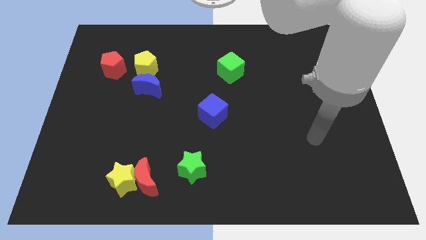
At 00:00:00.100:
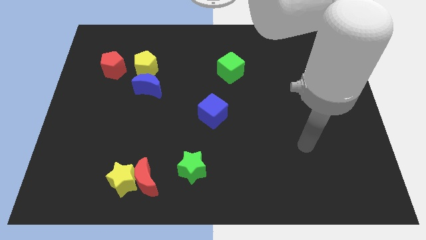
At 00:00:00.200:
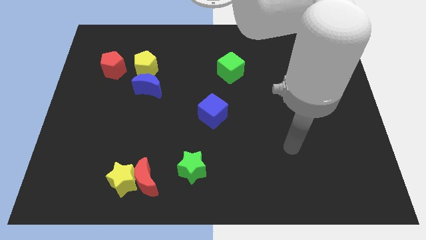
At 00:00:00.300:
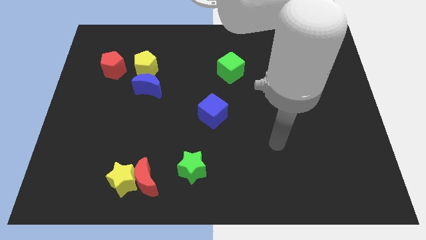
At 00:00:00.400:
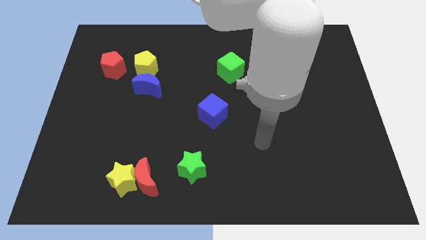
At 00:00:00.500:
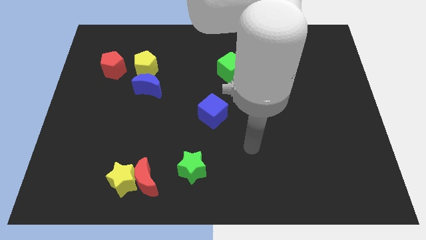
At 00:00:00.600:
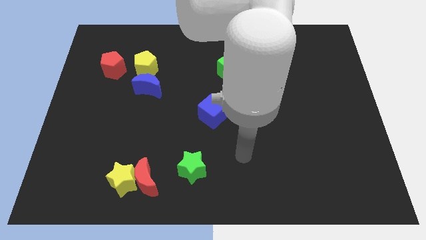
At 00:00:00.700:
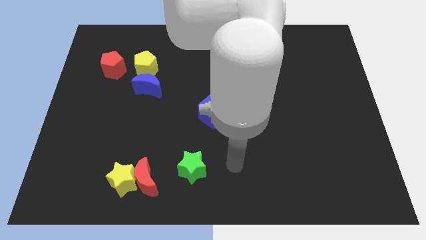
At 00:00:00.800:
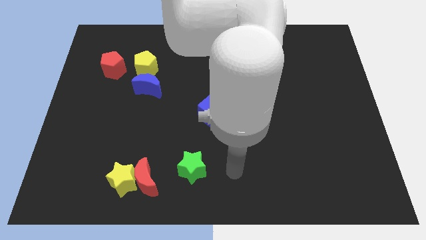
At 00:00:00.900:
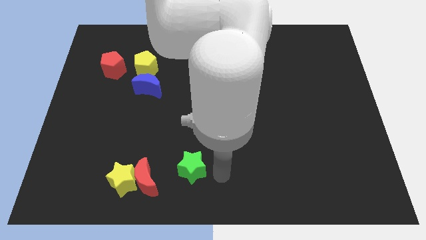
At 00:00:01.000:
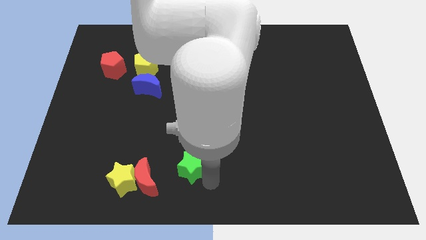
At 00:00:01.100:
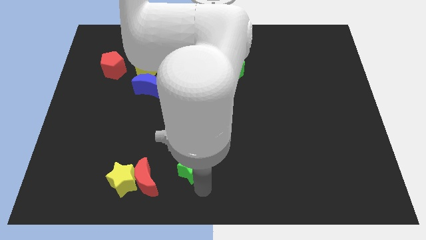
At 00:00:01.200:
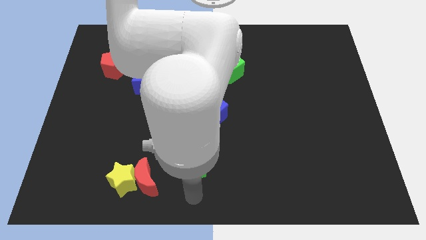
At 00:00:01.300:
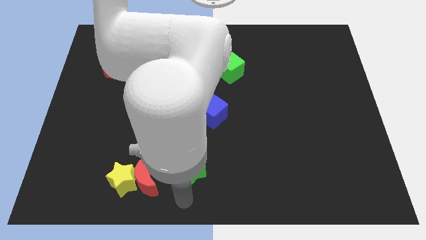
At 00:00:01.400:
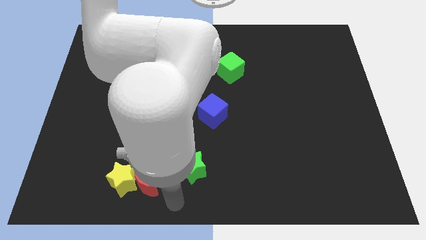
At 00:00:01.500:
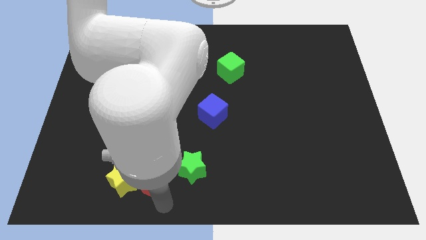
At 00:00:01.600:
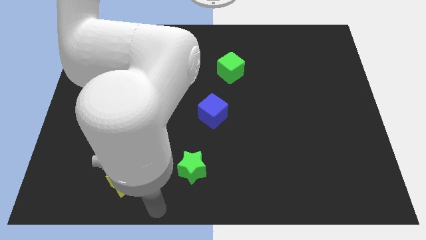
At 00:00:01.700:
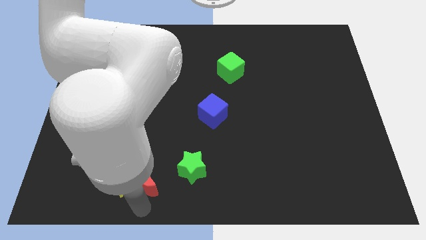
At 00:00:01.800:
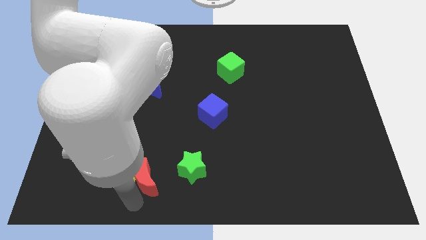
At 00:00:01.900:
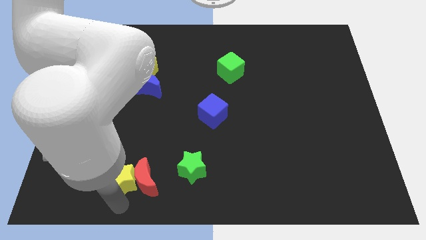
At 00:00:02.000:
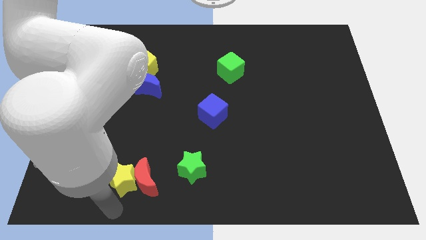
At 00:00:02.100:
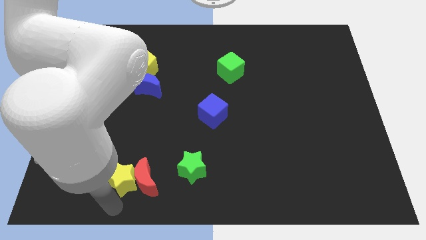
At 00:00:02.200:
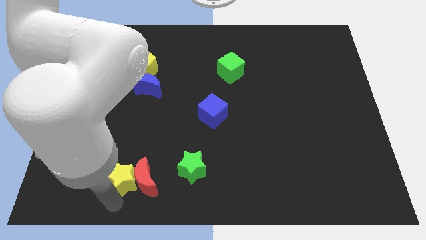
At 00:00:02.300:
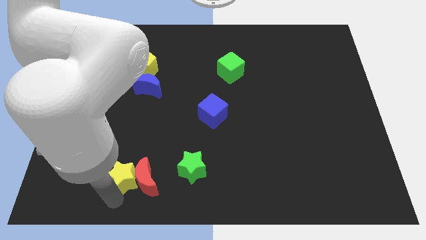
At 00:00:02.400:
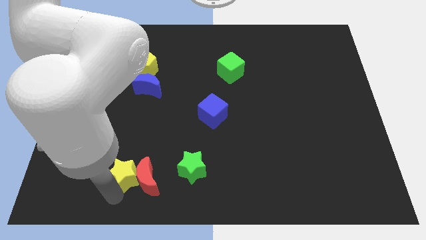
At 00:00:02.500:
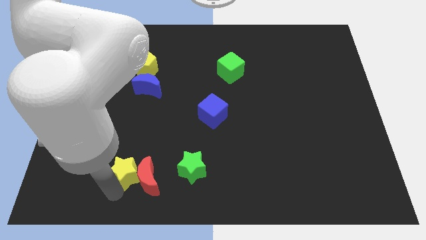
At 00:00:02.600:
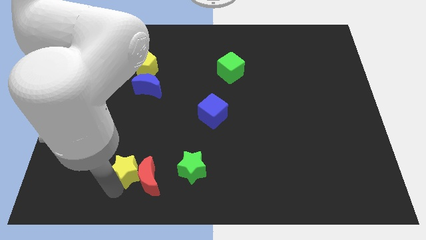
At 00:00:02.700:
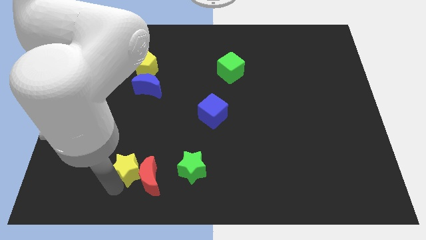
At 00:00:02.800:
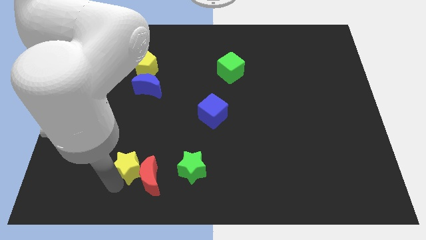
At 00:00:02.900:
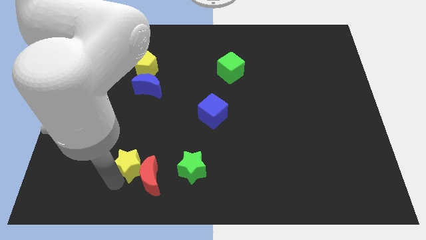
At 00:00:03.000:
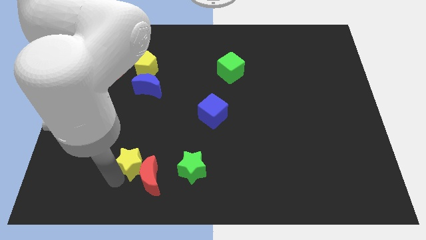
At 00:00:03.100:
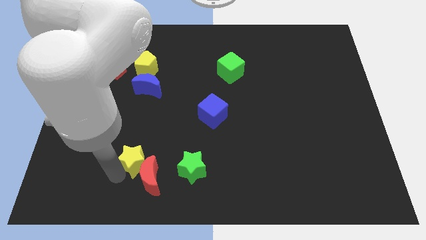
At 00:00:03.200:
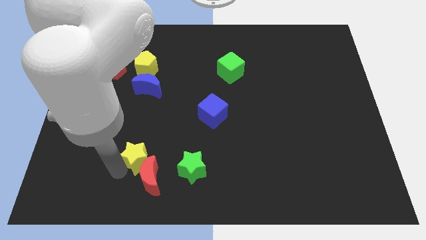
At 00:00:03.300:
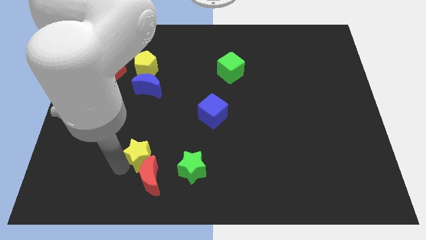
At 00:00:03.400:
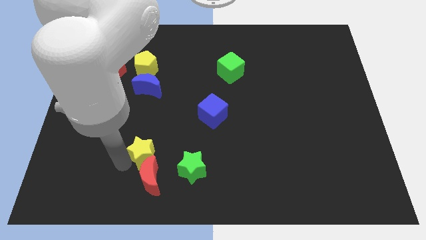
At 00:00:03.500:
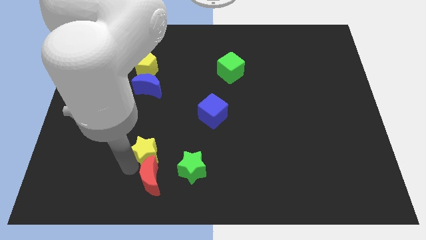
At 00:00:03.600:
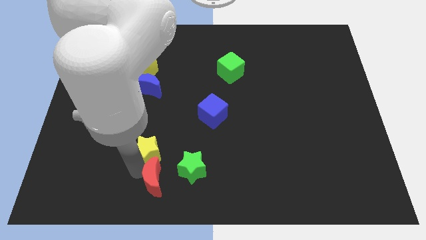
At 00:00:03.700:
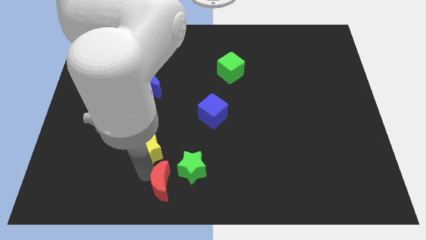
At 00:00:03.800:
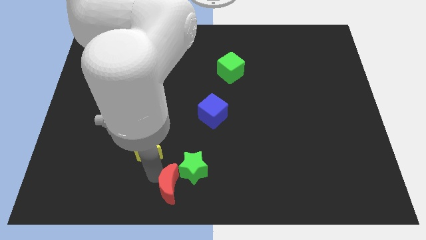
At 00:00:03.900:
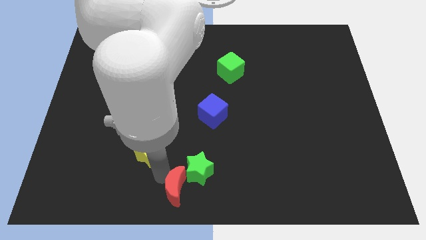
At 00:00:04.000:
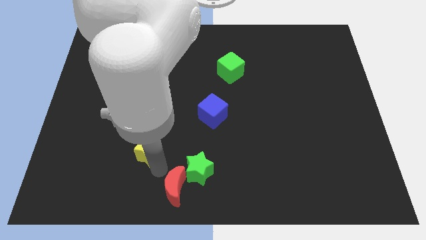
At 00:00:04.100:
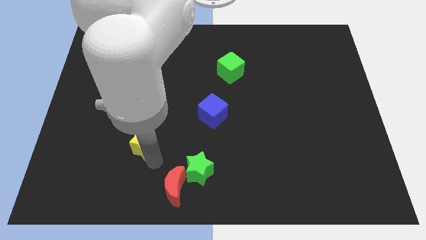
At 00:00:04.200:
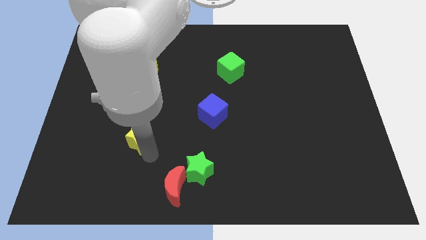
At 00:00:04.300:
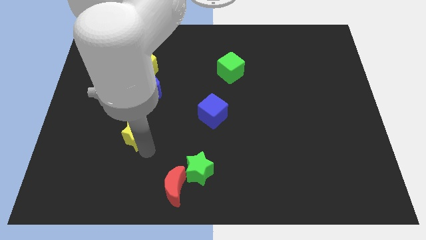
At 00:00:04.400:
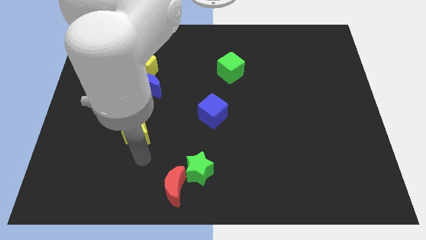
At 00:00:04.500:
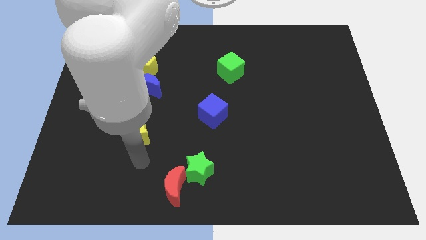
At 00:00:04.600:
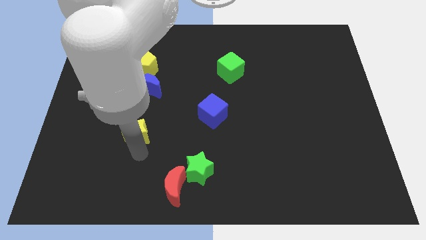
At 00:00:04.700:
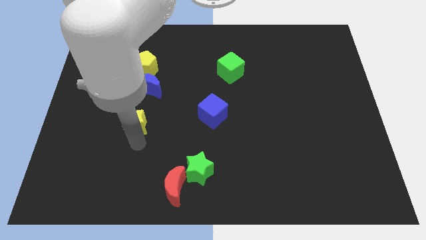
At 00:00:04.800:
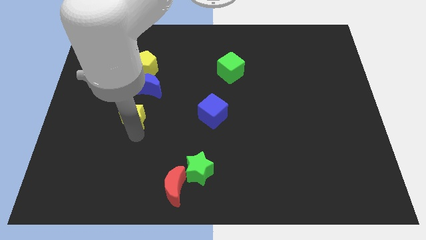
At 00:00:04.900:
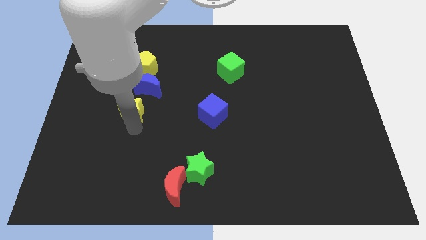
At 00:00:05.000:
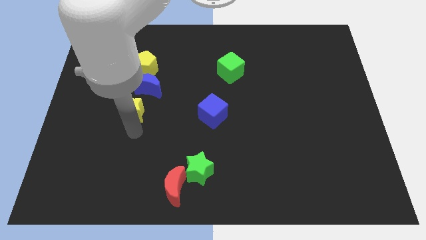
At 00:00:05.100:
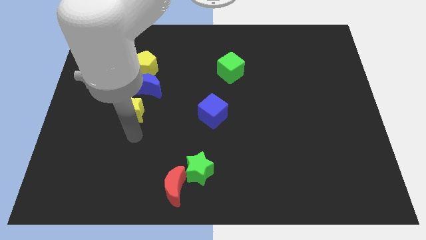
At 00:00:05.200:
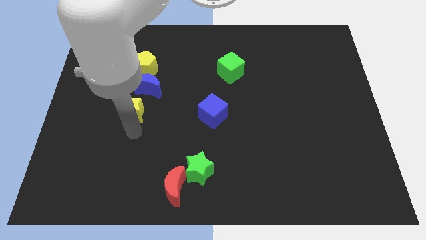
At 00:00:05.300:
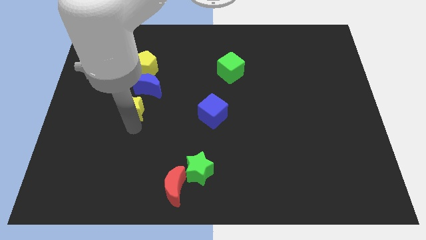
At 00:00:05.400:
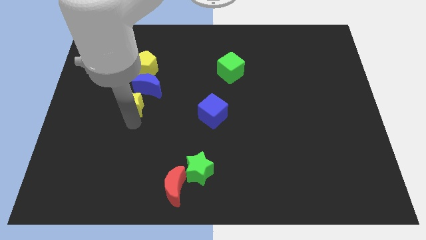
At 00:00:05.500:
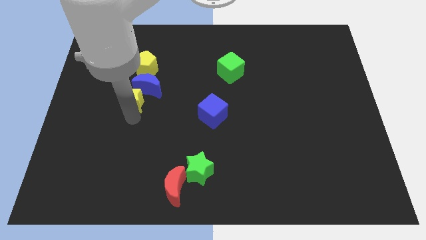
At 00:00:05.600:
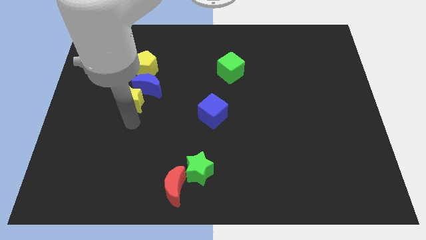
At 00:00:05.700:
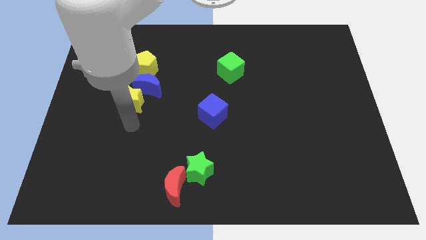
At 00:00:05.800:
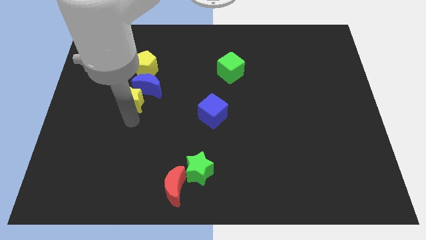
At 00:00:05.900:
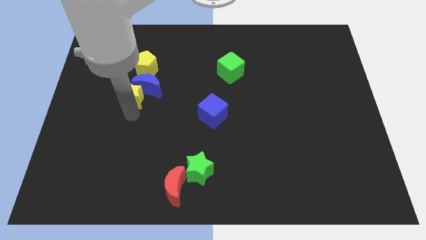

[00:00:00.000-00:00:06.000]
push the yellow star to the bottom right side of the red pentagon

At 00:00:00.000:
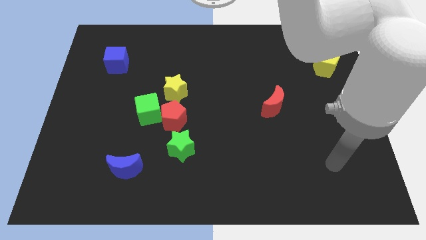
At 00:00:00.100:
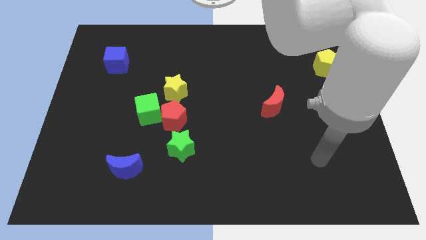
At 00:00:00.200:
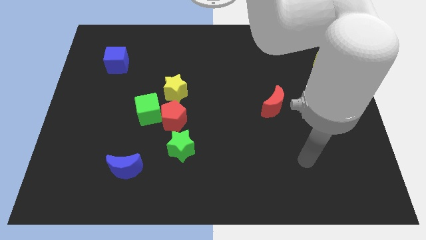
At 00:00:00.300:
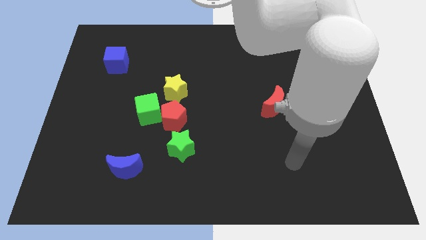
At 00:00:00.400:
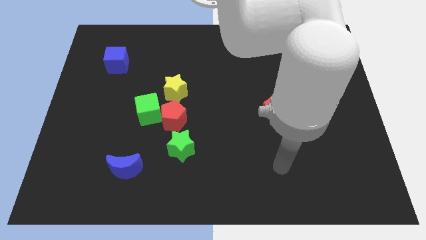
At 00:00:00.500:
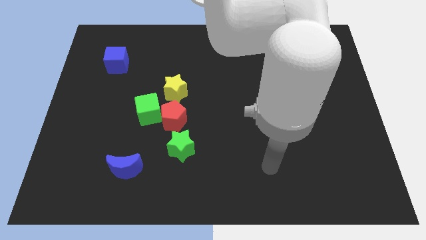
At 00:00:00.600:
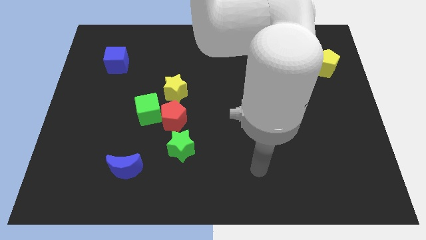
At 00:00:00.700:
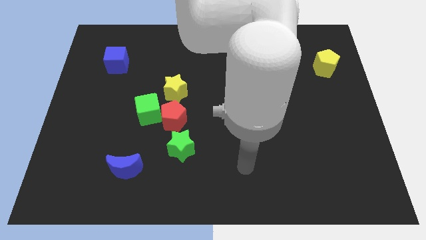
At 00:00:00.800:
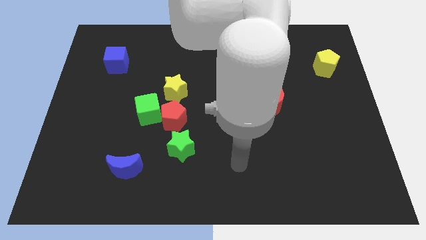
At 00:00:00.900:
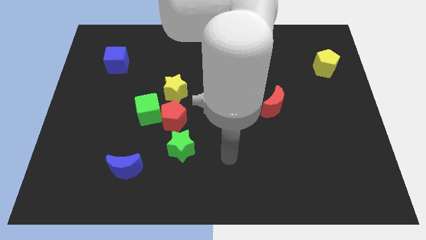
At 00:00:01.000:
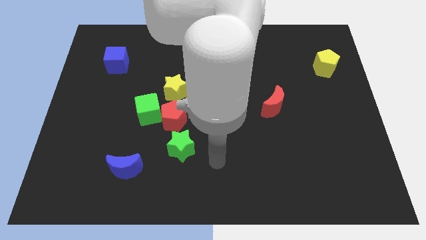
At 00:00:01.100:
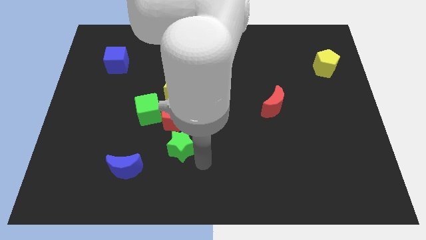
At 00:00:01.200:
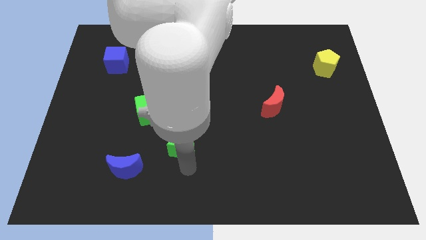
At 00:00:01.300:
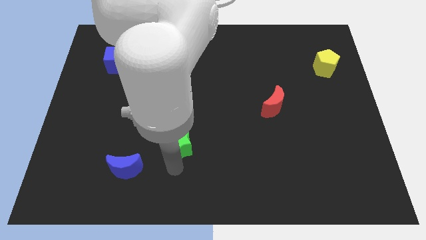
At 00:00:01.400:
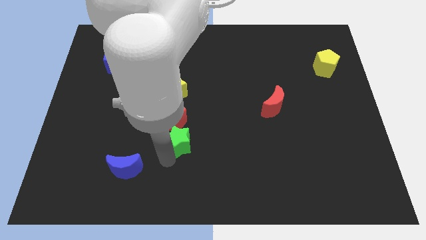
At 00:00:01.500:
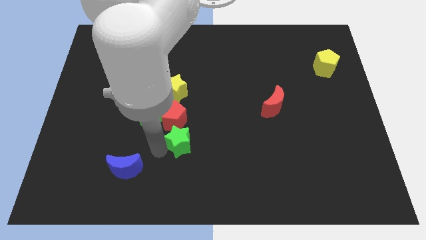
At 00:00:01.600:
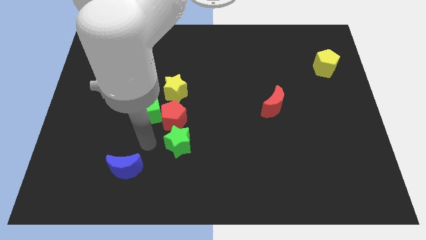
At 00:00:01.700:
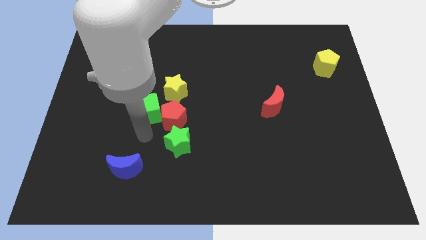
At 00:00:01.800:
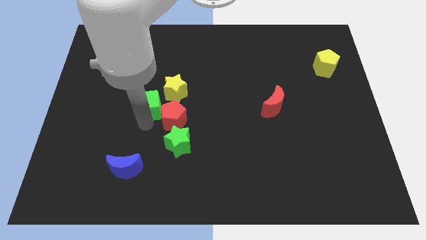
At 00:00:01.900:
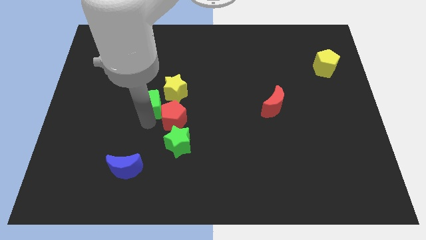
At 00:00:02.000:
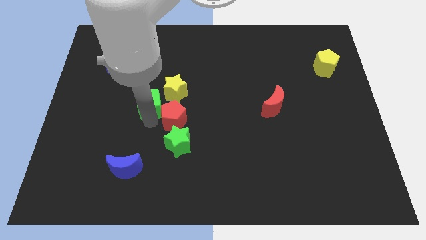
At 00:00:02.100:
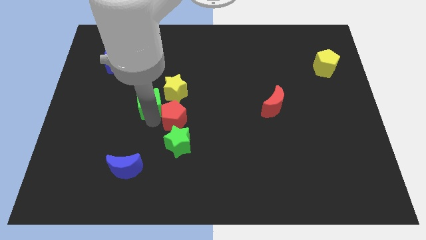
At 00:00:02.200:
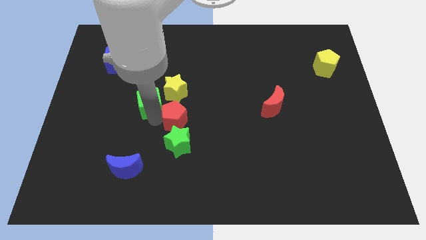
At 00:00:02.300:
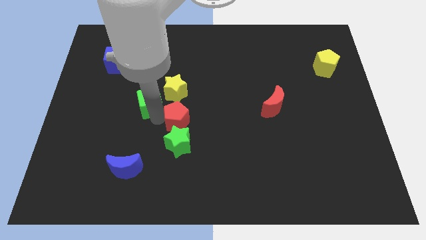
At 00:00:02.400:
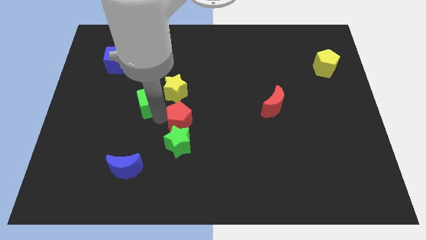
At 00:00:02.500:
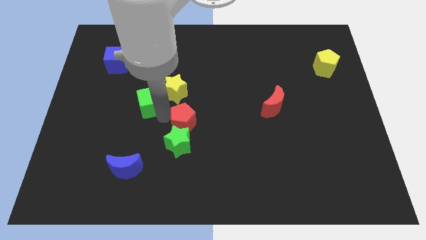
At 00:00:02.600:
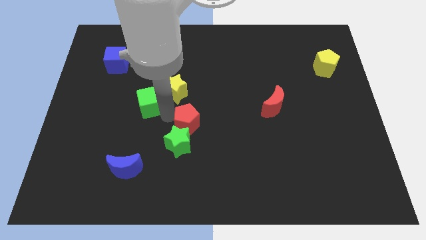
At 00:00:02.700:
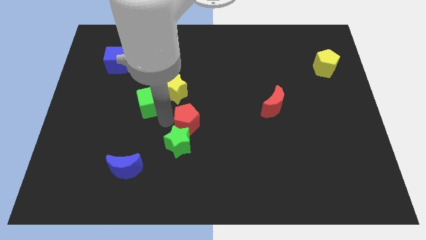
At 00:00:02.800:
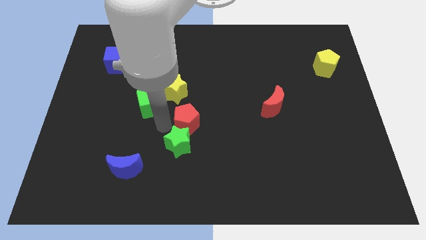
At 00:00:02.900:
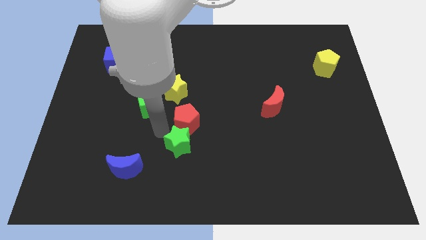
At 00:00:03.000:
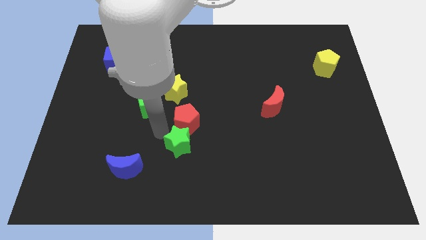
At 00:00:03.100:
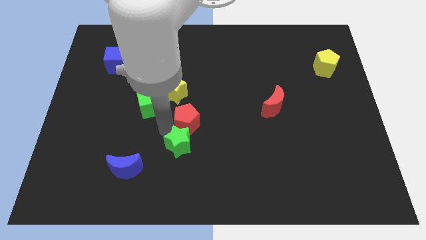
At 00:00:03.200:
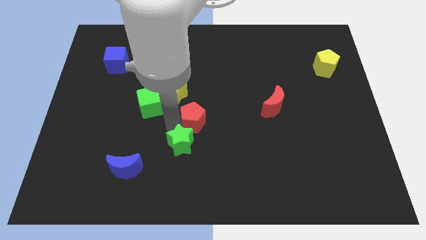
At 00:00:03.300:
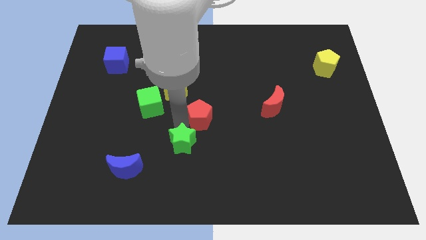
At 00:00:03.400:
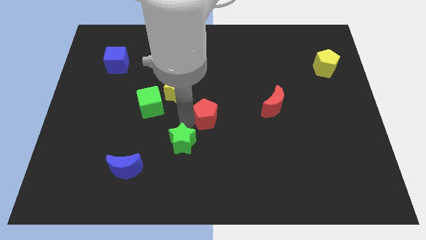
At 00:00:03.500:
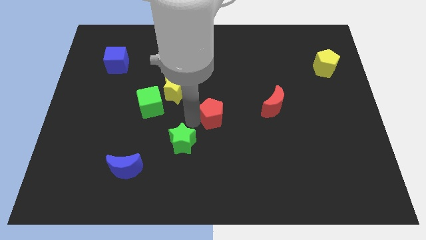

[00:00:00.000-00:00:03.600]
move the red pentagon to the left side of the red moon
